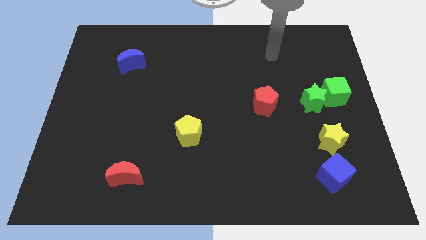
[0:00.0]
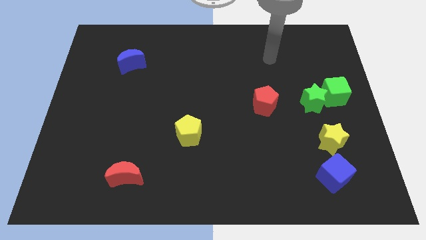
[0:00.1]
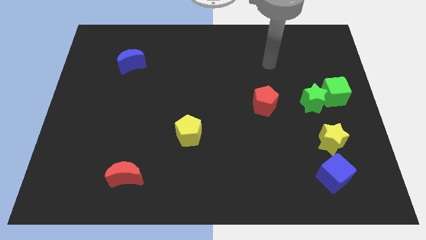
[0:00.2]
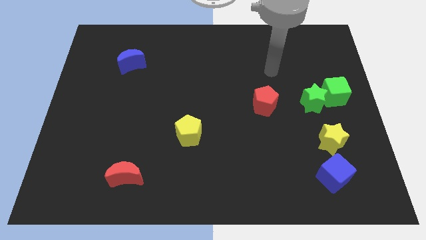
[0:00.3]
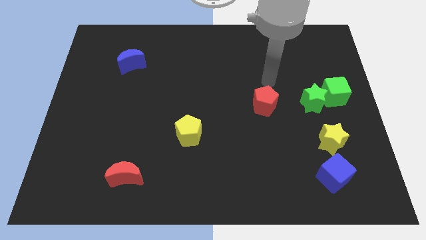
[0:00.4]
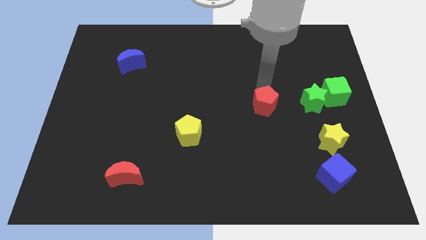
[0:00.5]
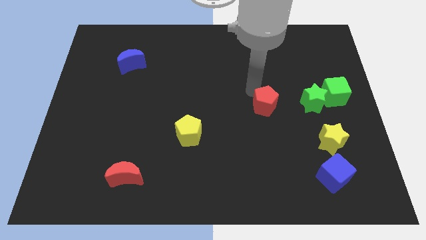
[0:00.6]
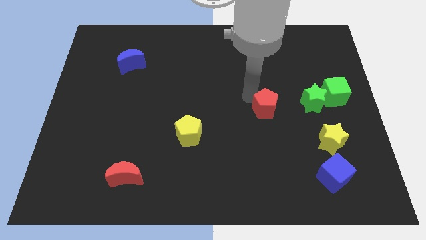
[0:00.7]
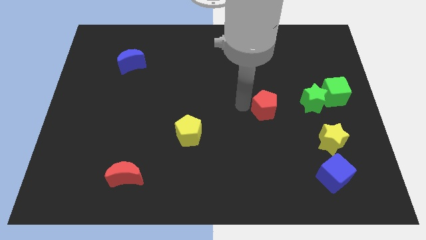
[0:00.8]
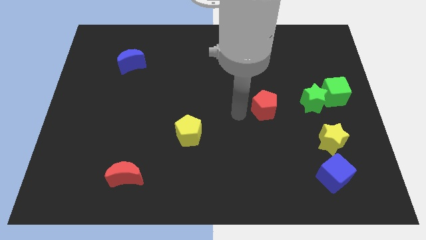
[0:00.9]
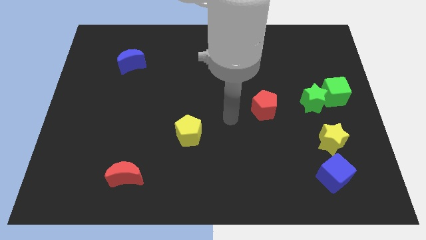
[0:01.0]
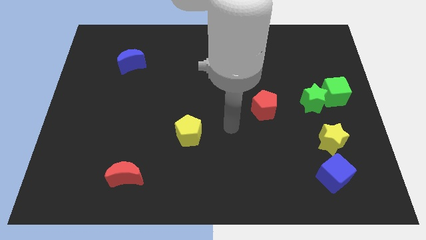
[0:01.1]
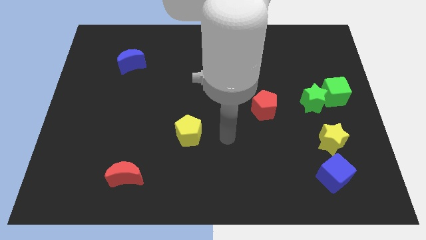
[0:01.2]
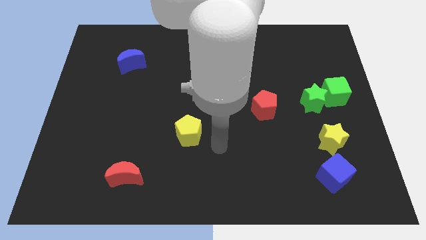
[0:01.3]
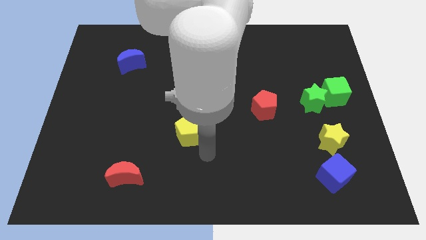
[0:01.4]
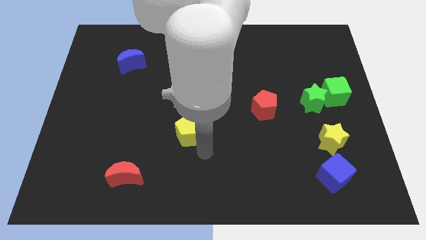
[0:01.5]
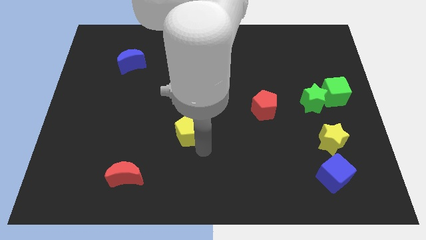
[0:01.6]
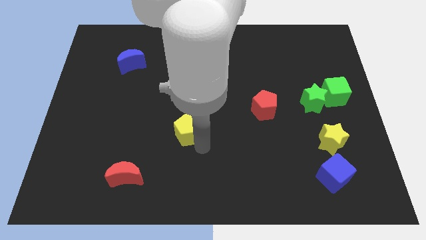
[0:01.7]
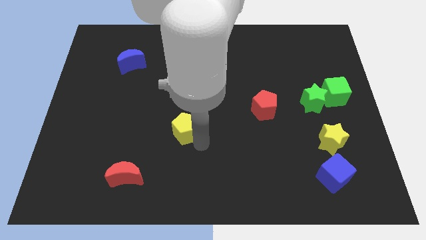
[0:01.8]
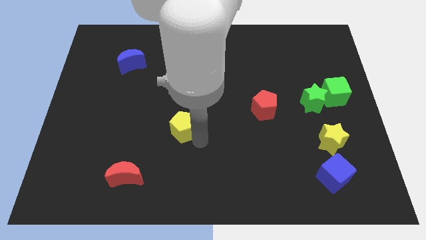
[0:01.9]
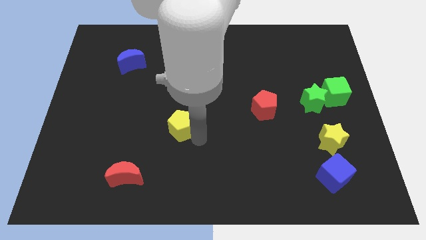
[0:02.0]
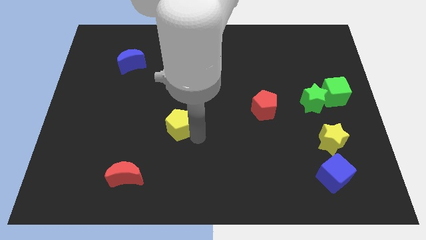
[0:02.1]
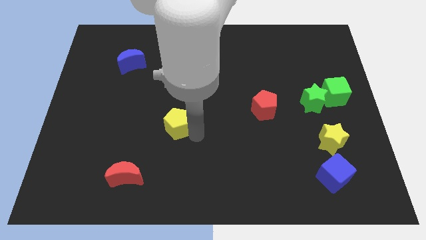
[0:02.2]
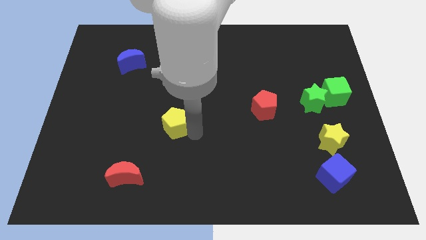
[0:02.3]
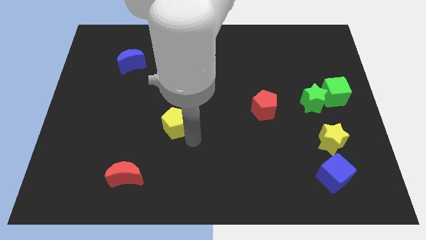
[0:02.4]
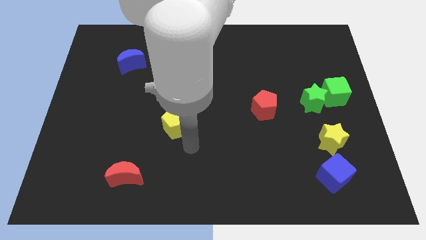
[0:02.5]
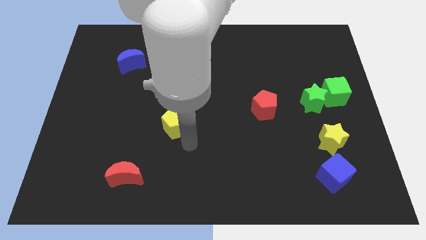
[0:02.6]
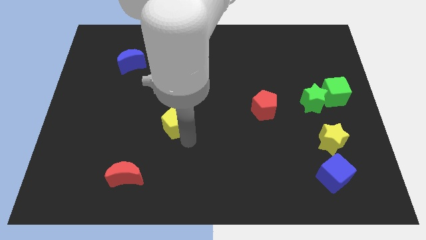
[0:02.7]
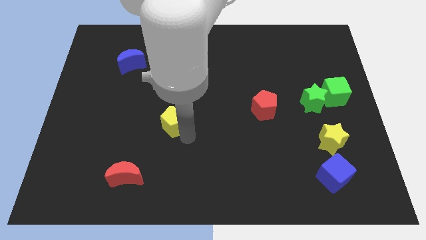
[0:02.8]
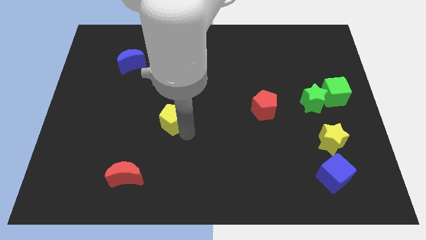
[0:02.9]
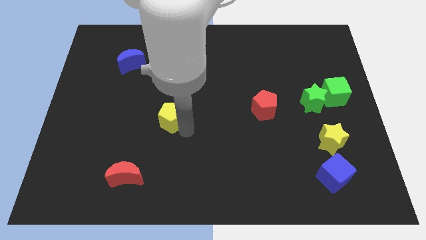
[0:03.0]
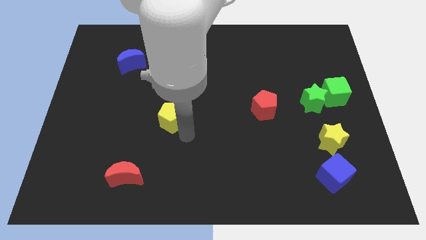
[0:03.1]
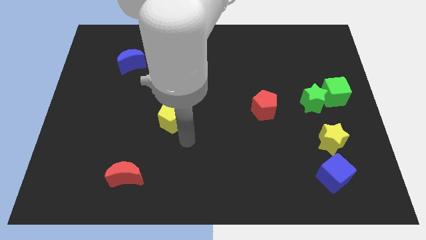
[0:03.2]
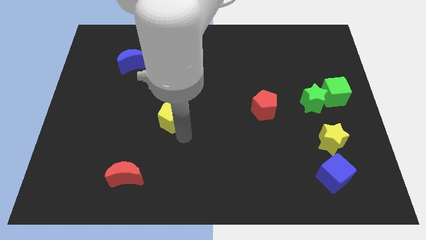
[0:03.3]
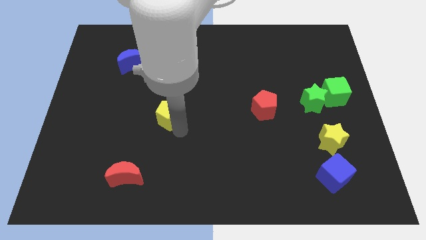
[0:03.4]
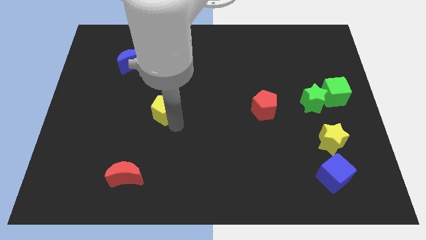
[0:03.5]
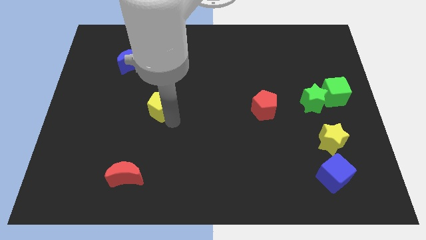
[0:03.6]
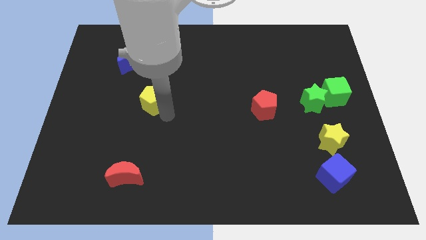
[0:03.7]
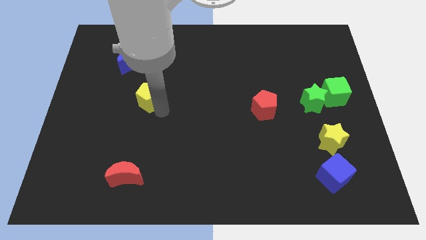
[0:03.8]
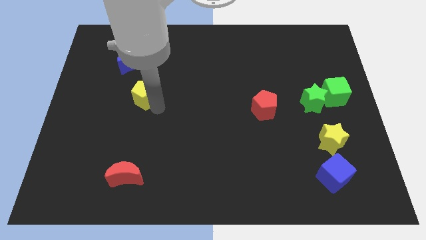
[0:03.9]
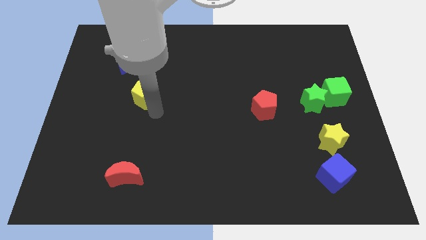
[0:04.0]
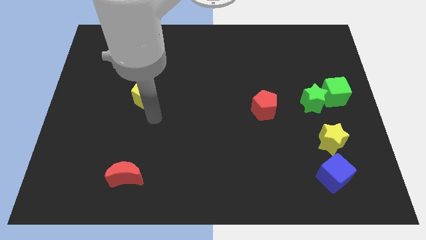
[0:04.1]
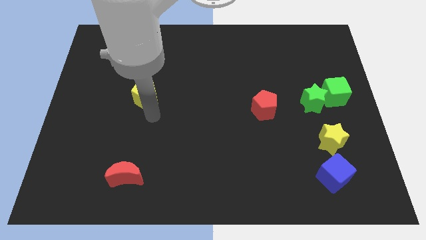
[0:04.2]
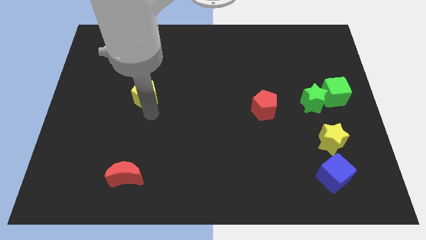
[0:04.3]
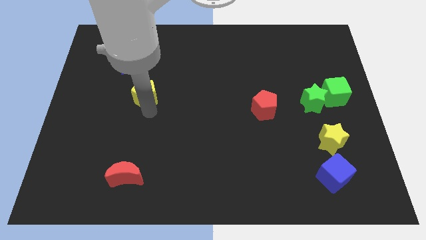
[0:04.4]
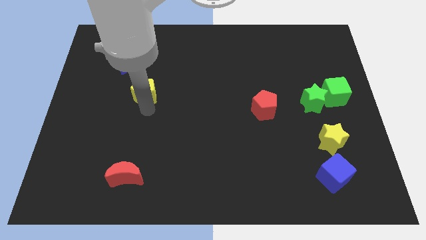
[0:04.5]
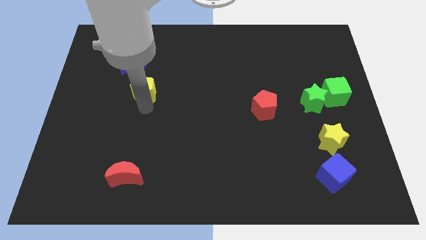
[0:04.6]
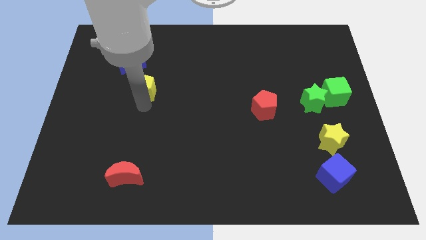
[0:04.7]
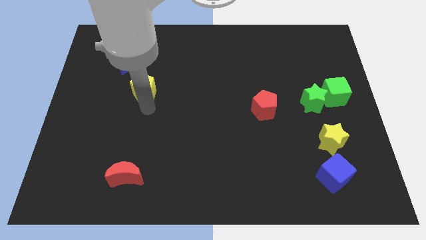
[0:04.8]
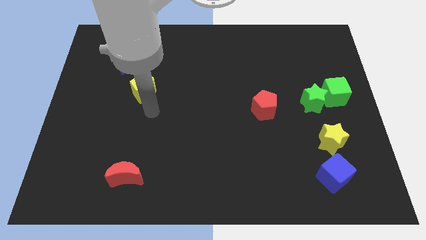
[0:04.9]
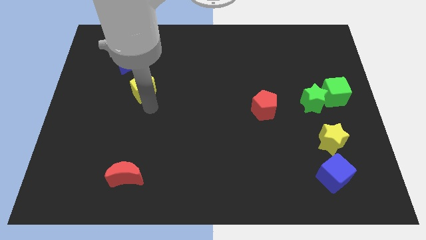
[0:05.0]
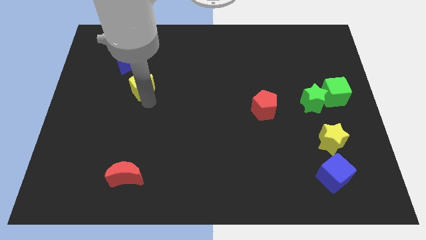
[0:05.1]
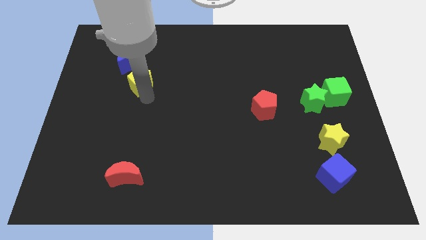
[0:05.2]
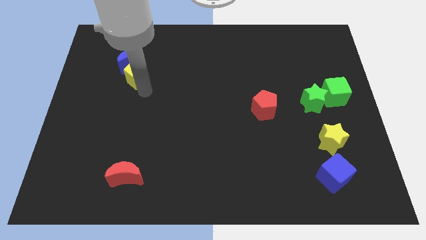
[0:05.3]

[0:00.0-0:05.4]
move the yellow pentagon next to the blue moon

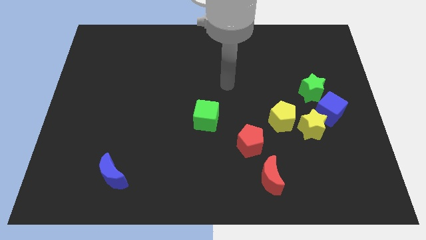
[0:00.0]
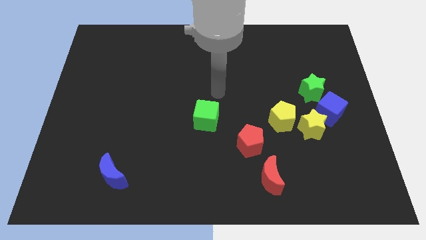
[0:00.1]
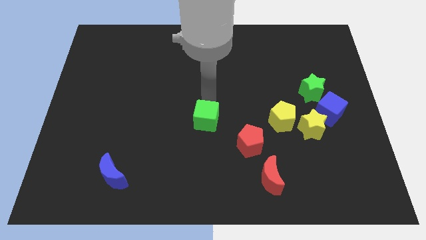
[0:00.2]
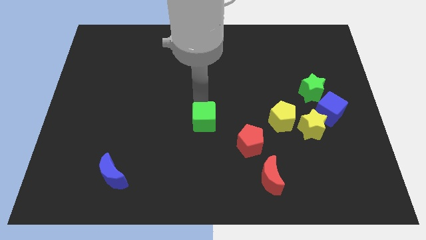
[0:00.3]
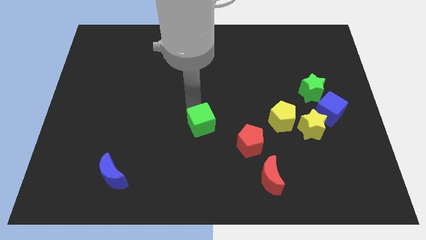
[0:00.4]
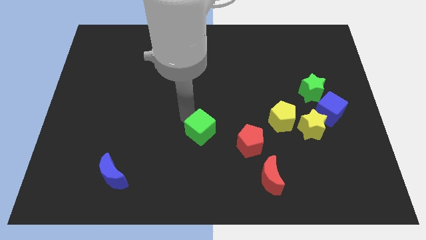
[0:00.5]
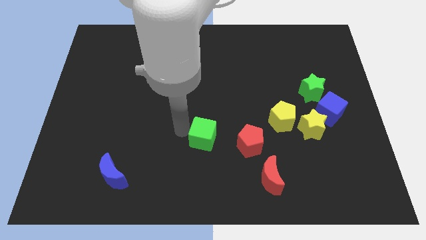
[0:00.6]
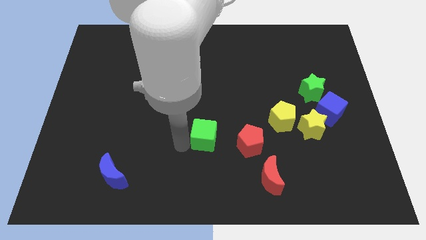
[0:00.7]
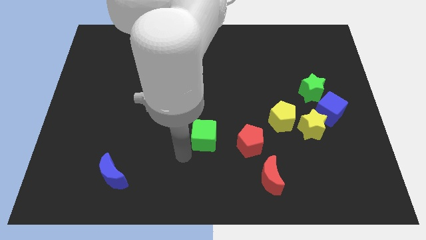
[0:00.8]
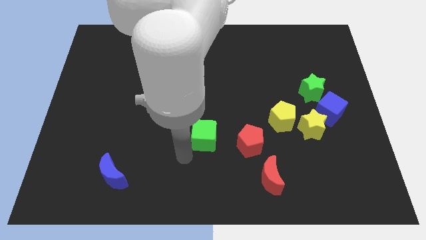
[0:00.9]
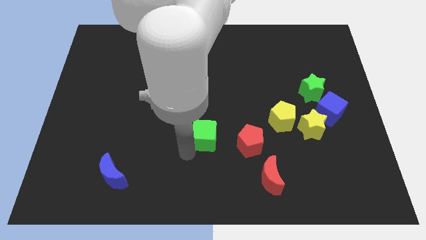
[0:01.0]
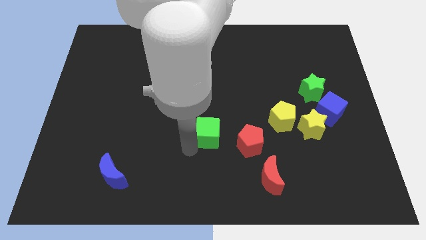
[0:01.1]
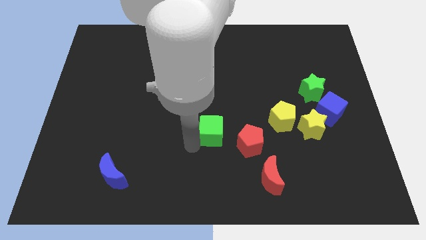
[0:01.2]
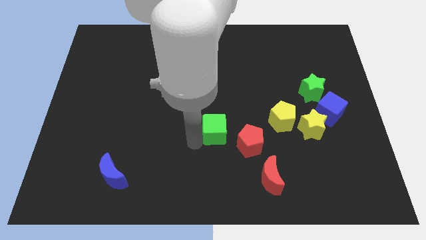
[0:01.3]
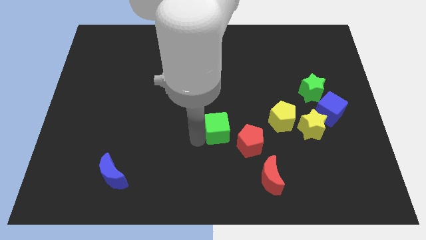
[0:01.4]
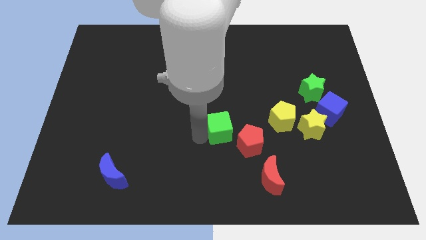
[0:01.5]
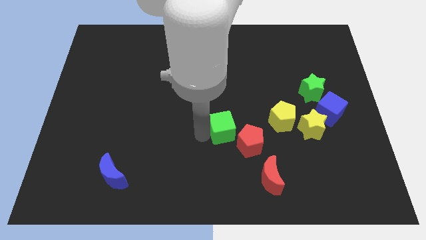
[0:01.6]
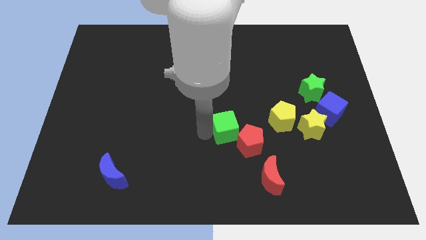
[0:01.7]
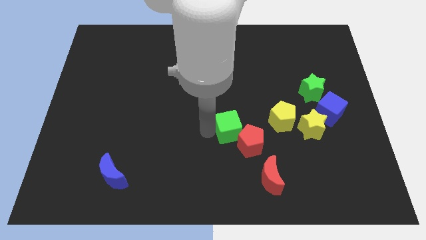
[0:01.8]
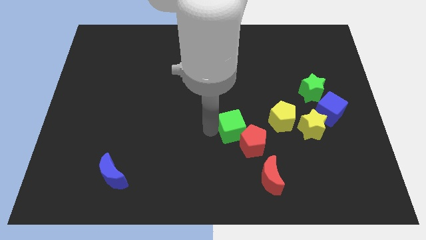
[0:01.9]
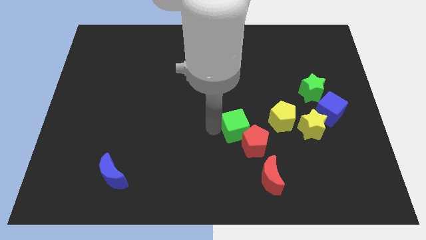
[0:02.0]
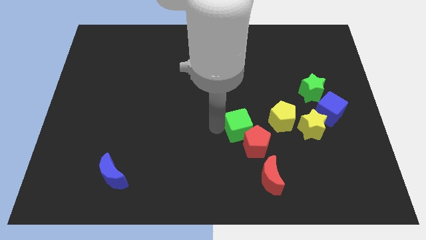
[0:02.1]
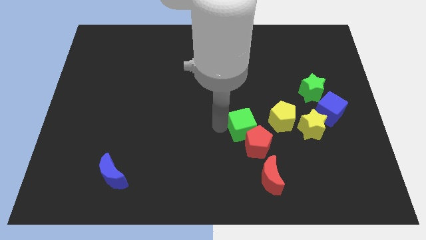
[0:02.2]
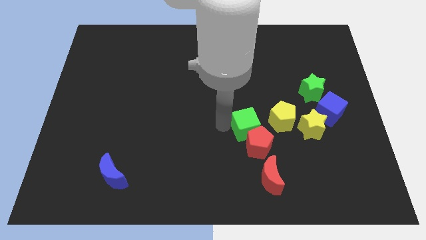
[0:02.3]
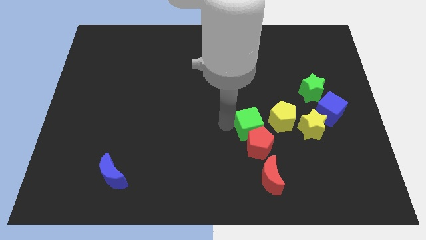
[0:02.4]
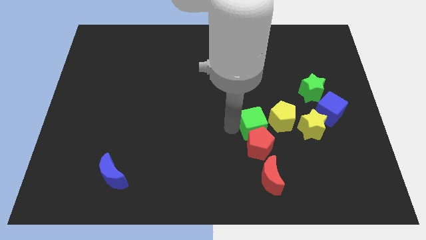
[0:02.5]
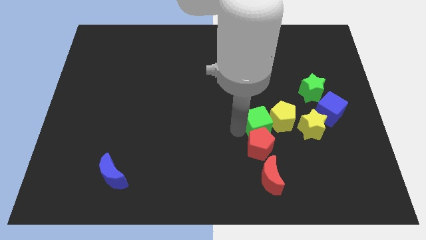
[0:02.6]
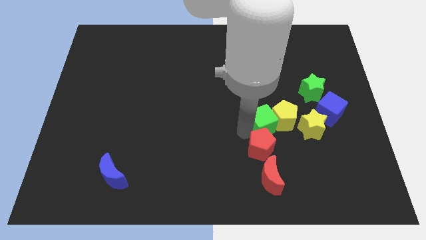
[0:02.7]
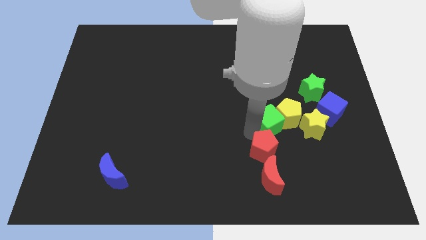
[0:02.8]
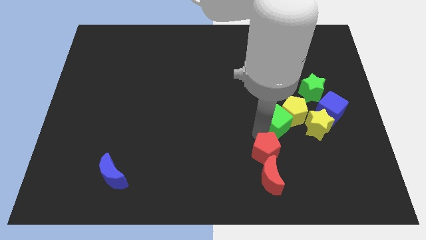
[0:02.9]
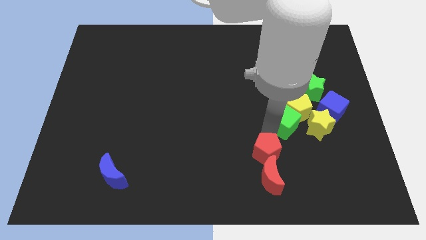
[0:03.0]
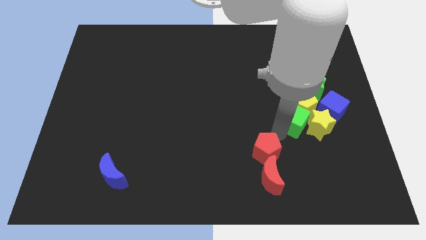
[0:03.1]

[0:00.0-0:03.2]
slide the green cube close to the yellow star
